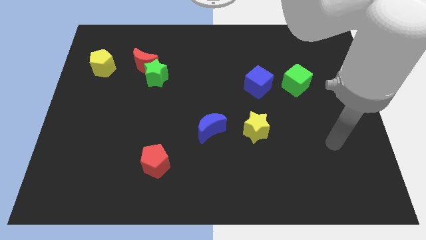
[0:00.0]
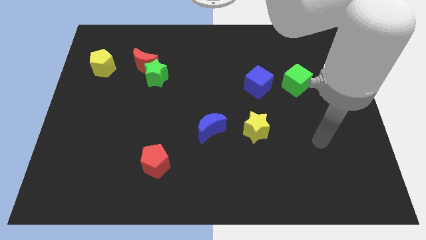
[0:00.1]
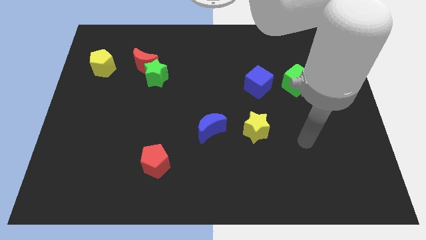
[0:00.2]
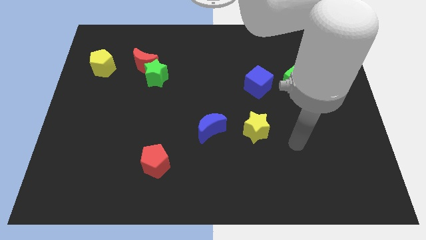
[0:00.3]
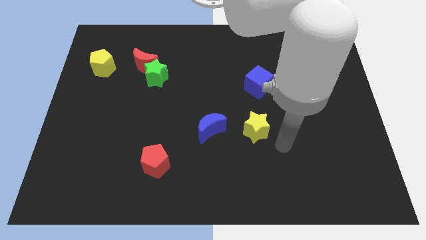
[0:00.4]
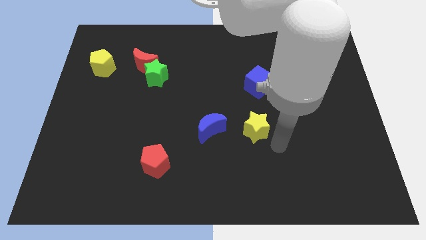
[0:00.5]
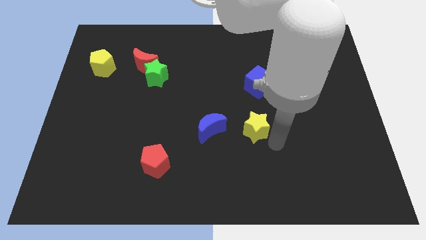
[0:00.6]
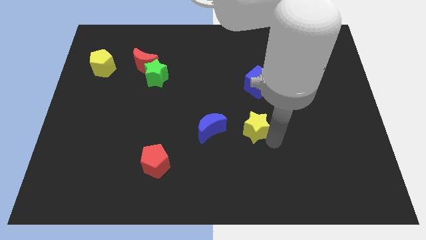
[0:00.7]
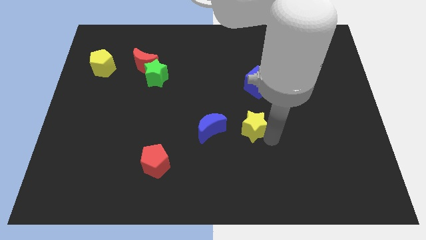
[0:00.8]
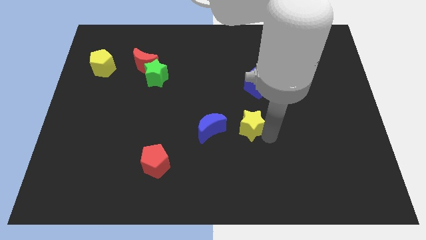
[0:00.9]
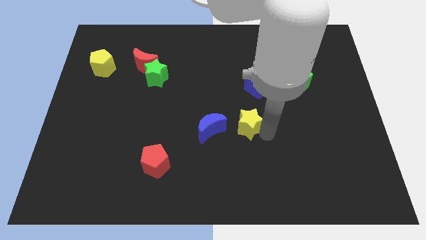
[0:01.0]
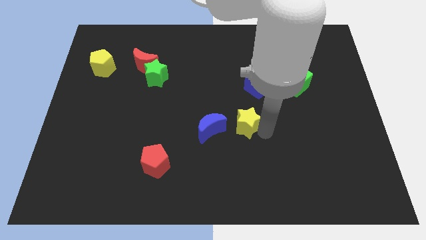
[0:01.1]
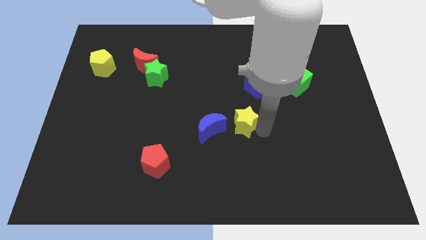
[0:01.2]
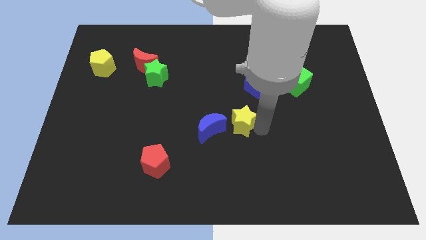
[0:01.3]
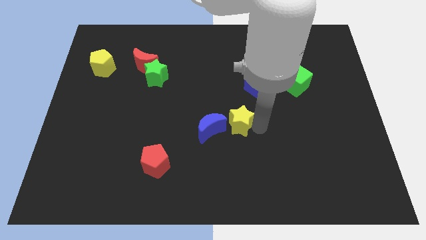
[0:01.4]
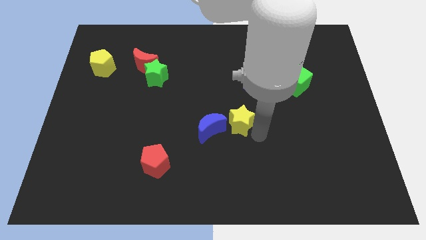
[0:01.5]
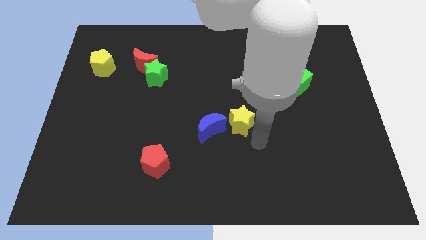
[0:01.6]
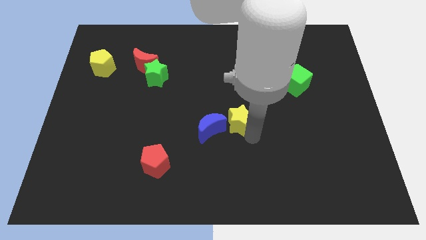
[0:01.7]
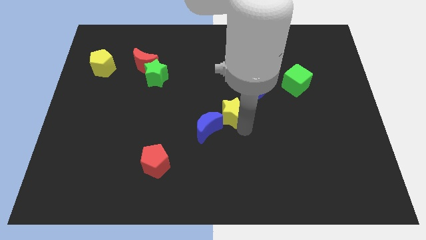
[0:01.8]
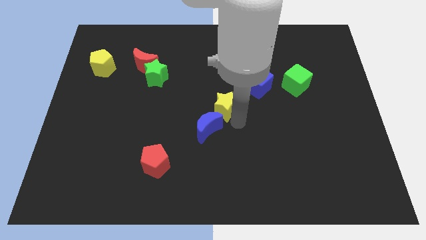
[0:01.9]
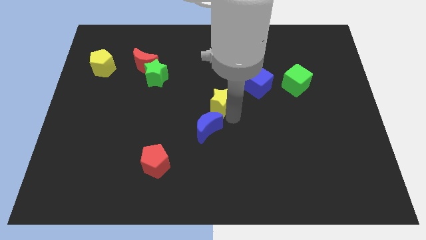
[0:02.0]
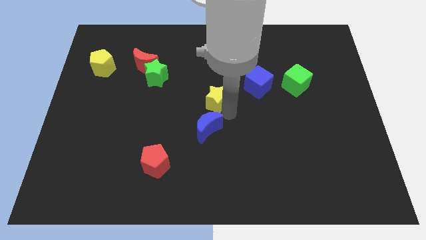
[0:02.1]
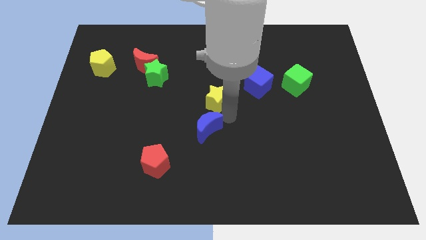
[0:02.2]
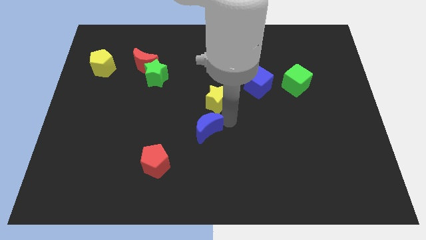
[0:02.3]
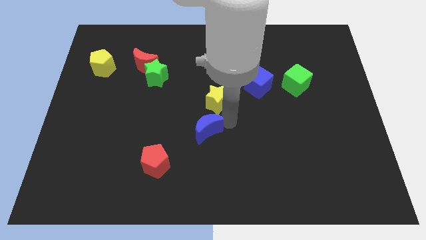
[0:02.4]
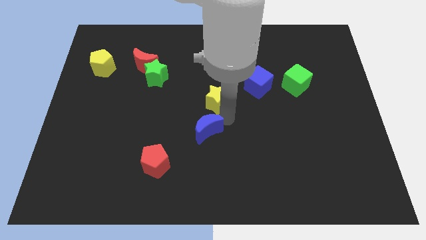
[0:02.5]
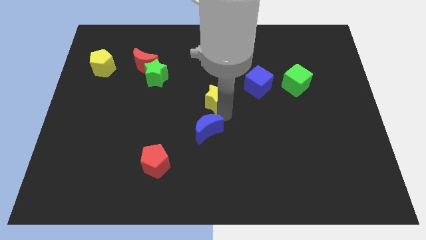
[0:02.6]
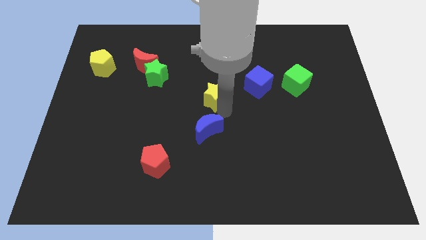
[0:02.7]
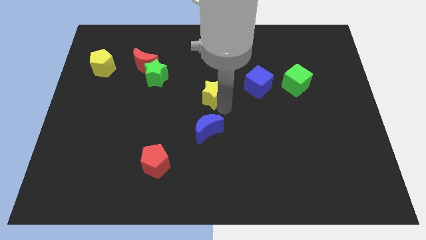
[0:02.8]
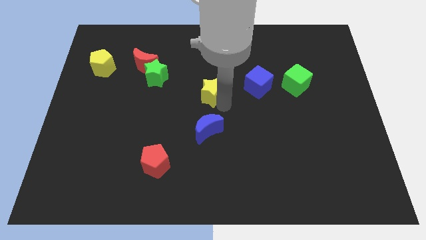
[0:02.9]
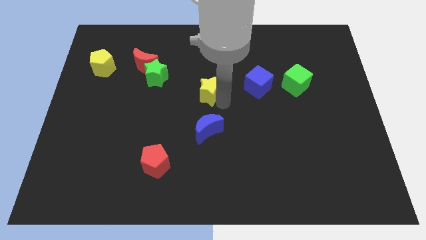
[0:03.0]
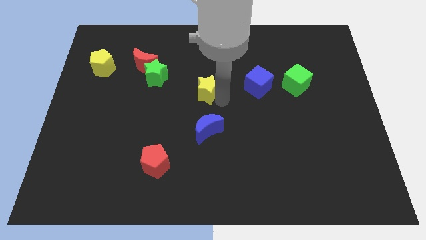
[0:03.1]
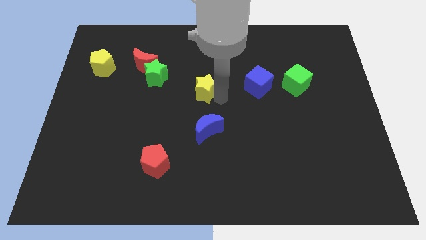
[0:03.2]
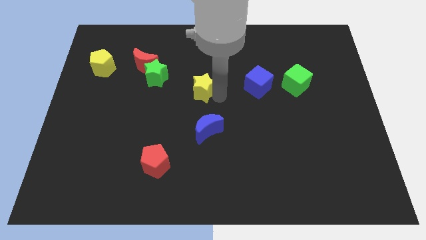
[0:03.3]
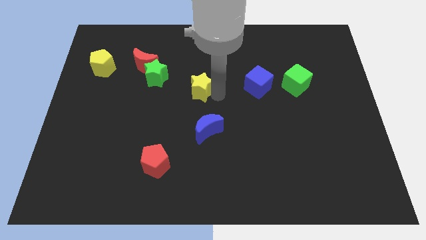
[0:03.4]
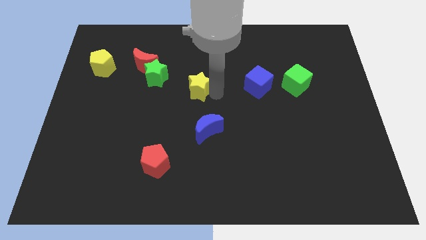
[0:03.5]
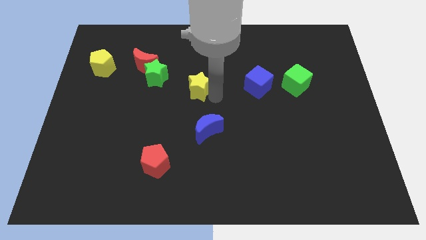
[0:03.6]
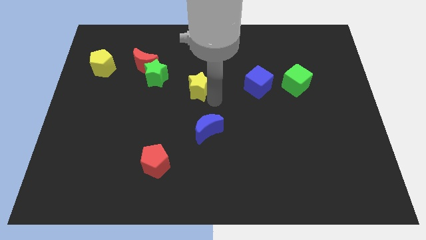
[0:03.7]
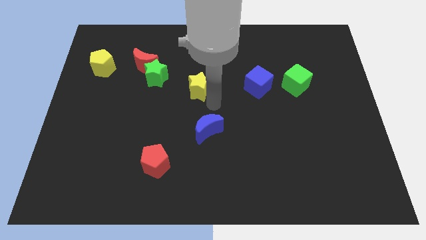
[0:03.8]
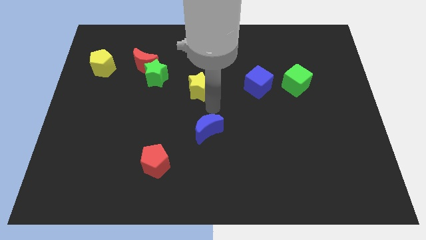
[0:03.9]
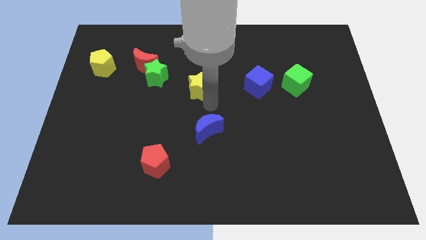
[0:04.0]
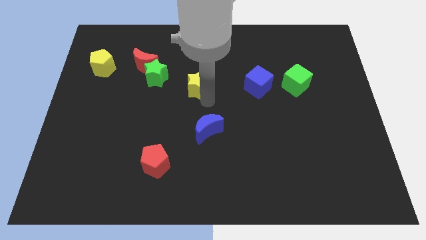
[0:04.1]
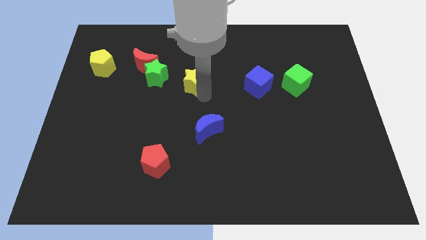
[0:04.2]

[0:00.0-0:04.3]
push the yellow star up and left

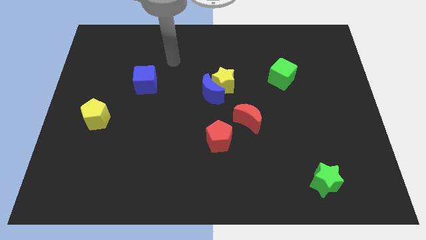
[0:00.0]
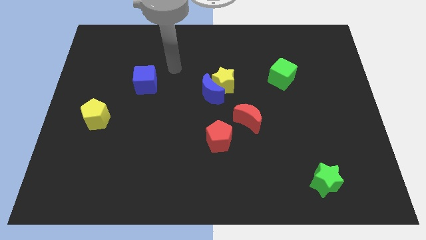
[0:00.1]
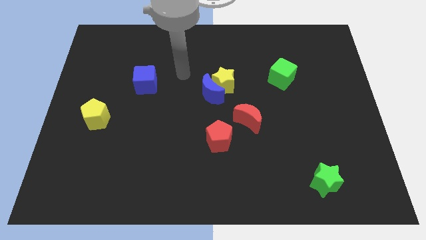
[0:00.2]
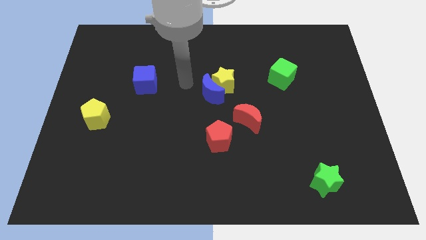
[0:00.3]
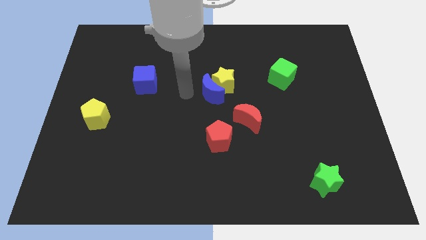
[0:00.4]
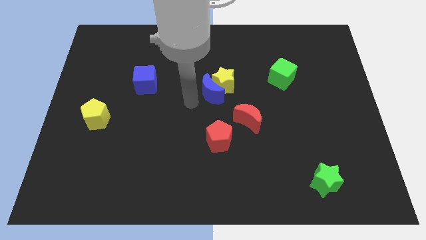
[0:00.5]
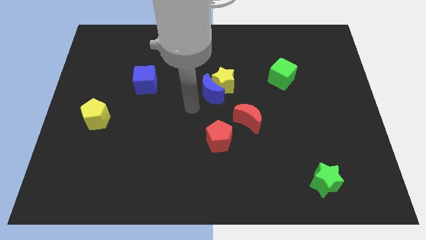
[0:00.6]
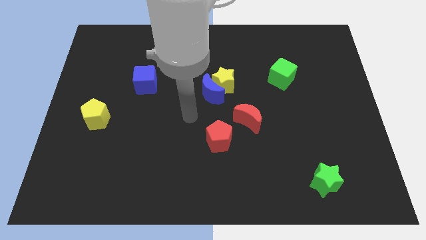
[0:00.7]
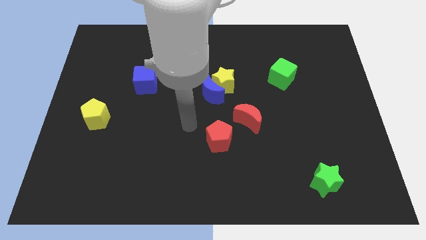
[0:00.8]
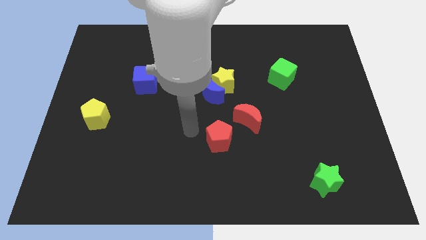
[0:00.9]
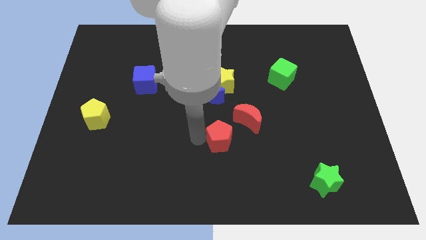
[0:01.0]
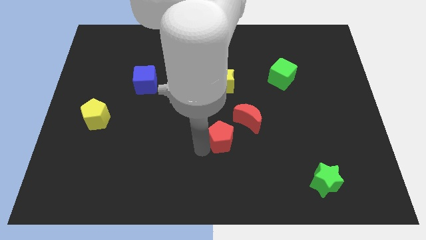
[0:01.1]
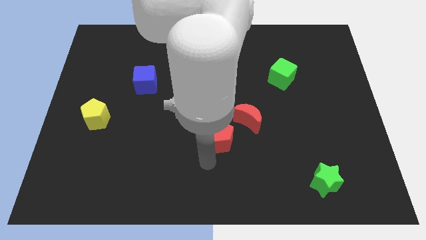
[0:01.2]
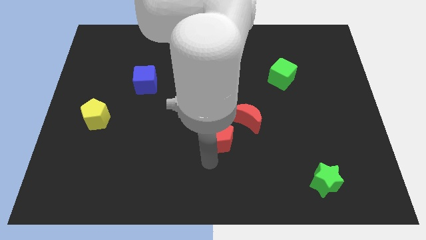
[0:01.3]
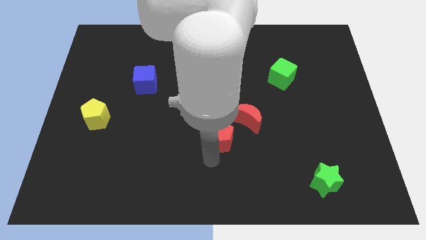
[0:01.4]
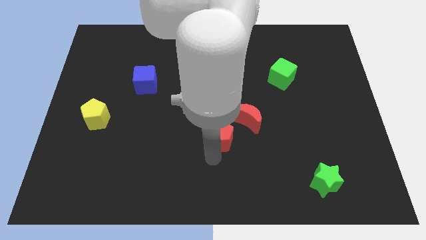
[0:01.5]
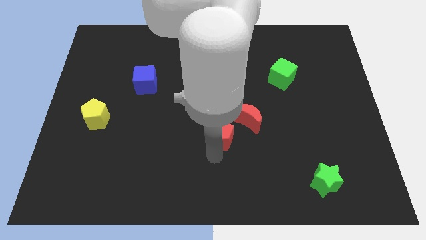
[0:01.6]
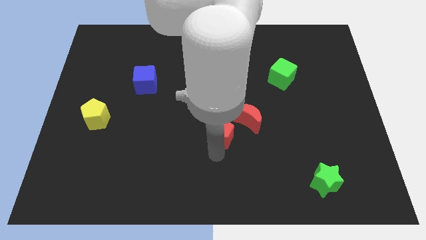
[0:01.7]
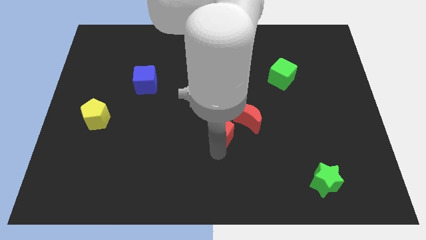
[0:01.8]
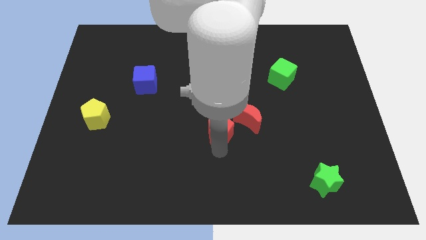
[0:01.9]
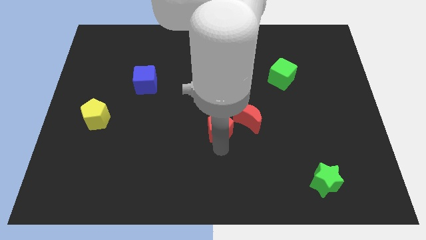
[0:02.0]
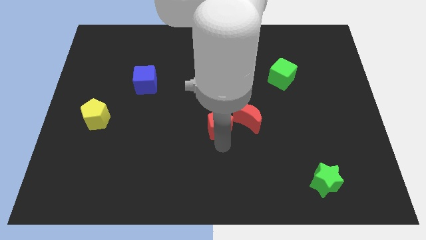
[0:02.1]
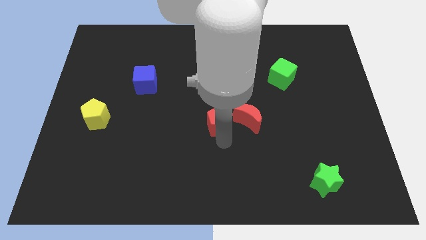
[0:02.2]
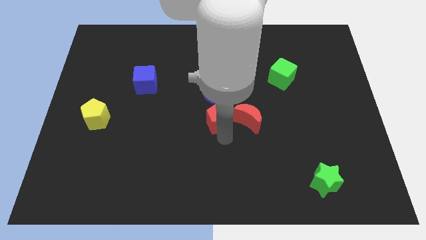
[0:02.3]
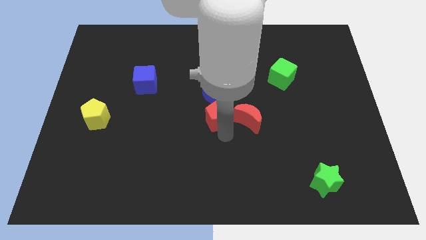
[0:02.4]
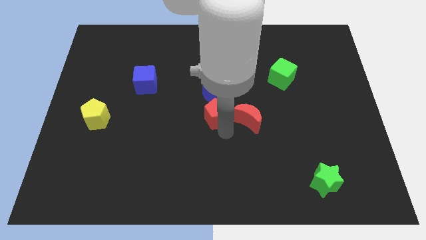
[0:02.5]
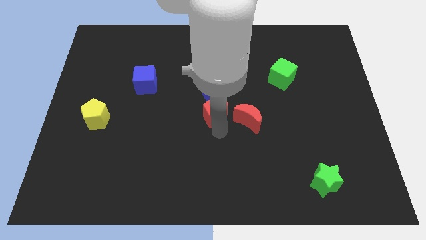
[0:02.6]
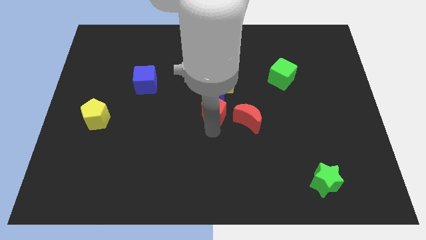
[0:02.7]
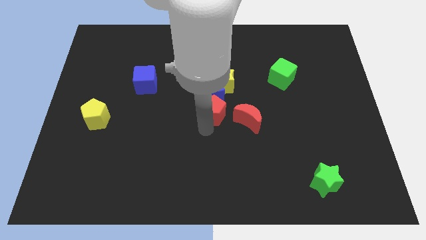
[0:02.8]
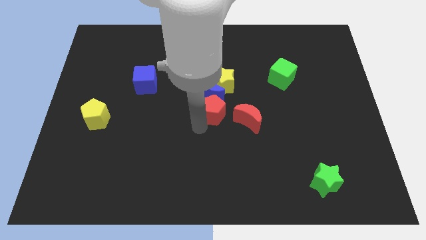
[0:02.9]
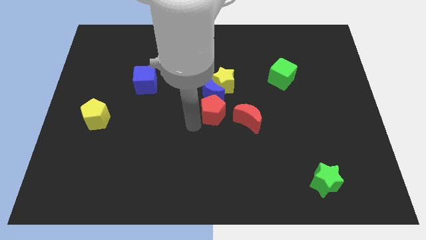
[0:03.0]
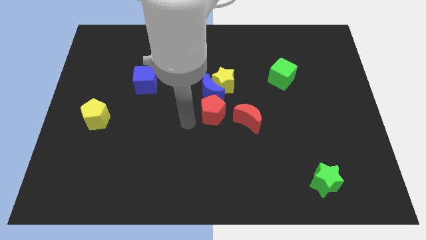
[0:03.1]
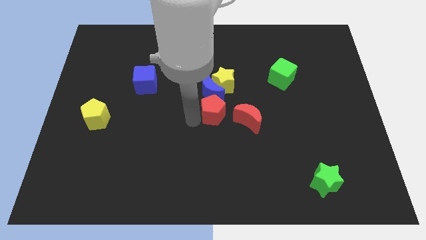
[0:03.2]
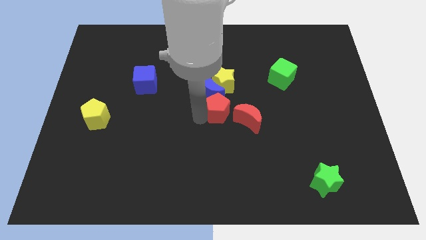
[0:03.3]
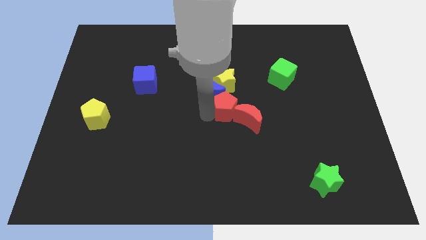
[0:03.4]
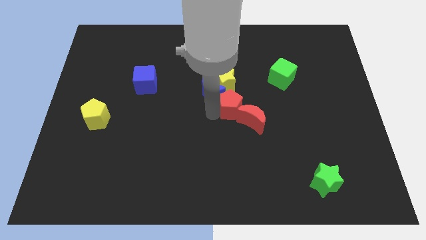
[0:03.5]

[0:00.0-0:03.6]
move the red pentagon upwards and then right a little
